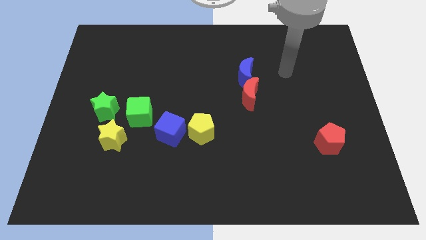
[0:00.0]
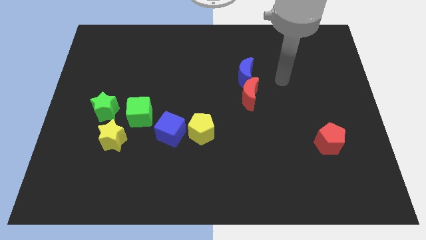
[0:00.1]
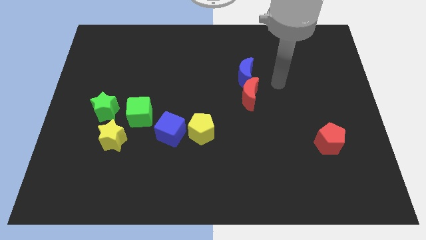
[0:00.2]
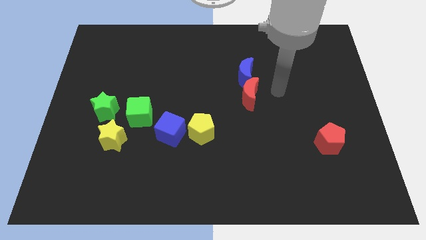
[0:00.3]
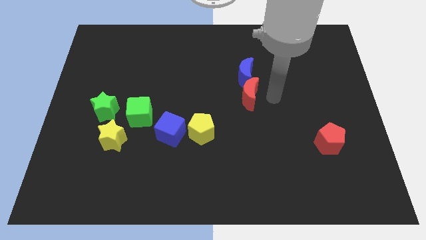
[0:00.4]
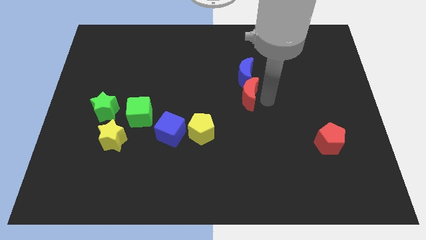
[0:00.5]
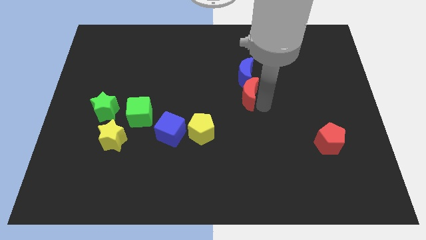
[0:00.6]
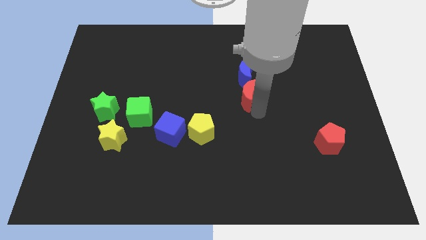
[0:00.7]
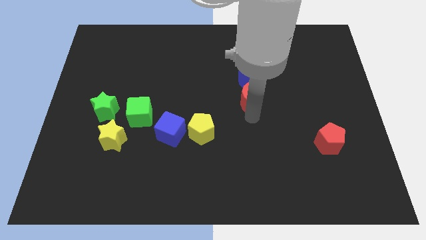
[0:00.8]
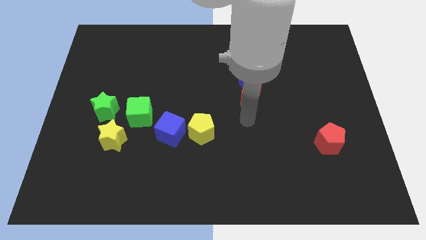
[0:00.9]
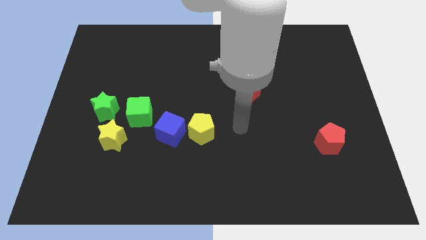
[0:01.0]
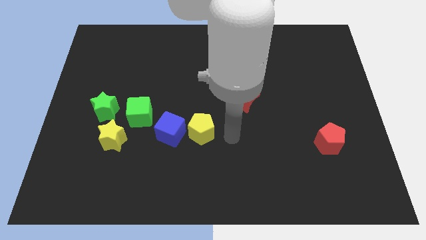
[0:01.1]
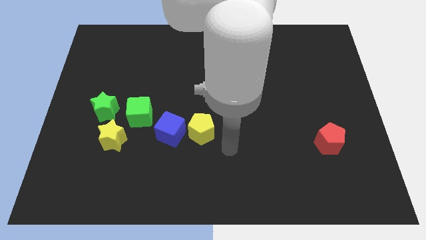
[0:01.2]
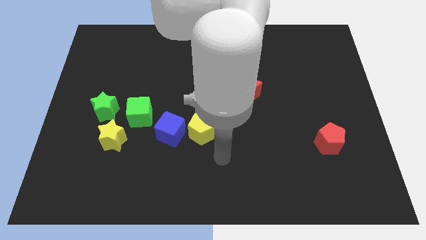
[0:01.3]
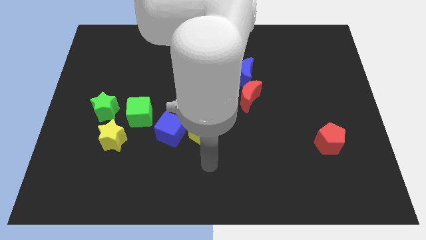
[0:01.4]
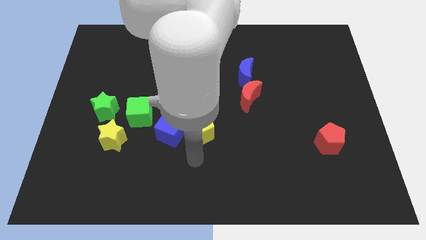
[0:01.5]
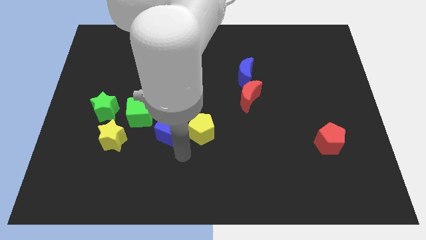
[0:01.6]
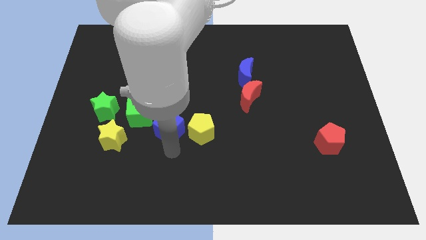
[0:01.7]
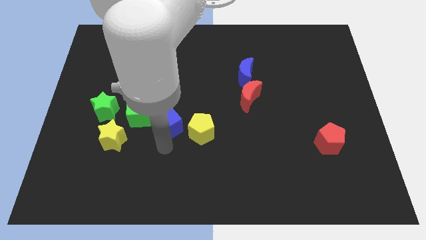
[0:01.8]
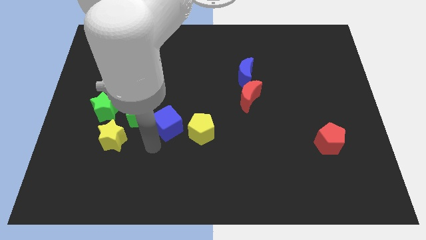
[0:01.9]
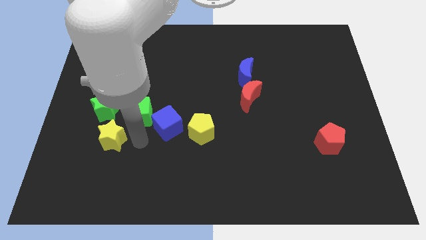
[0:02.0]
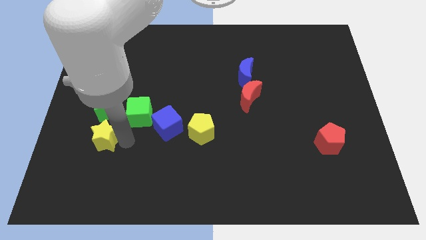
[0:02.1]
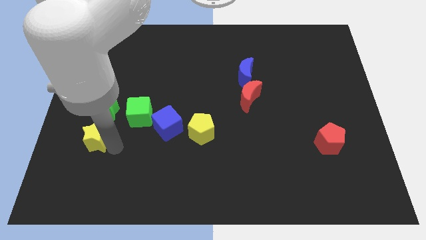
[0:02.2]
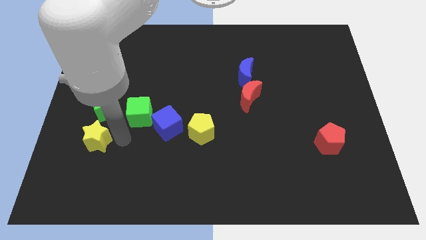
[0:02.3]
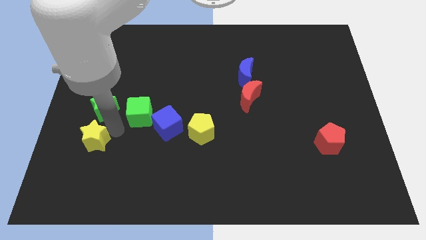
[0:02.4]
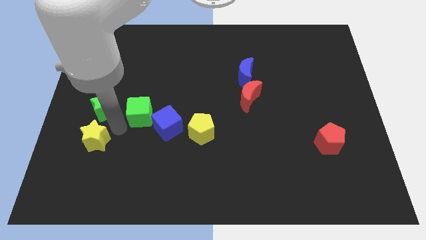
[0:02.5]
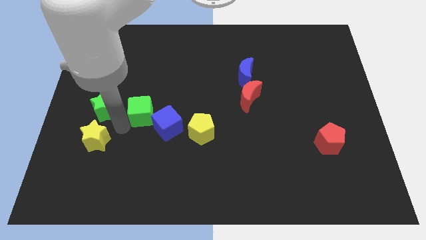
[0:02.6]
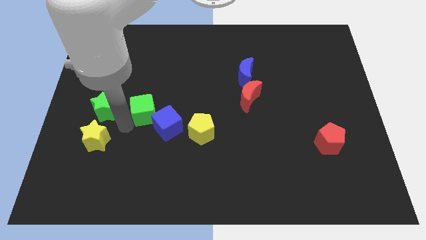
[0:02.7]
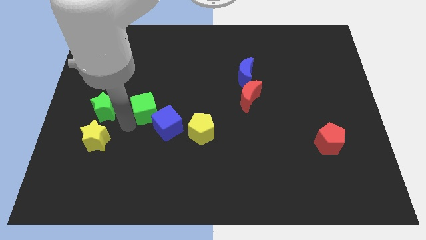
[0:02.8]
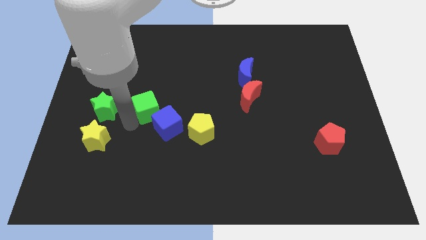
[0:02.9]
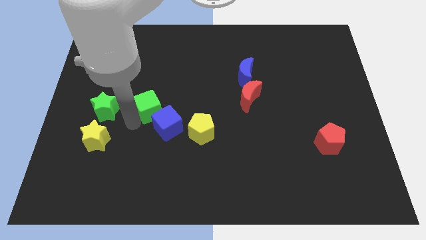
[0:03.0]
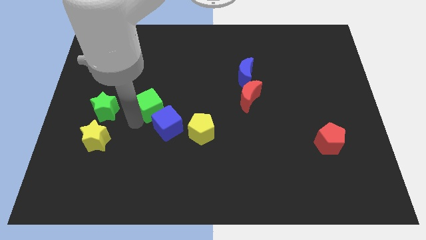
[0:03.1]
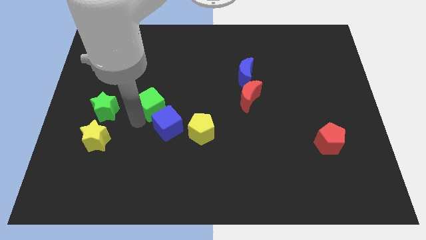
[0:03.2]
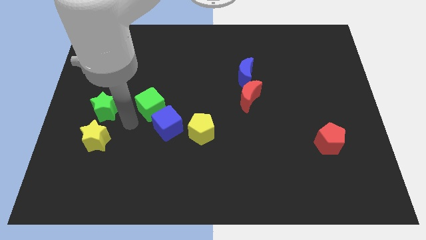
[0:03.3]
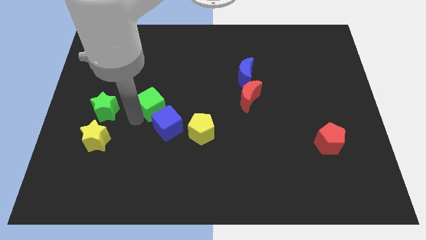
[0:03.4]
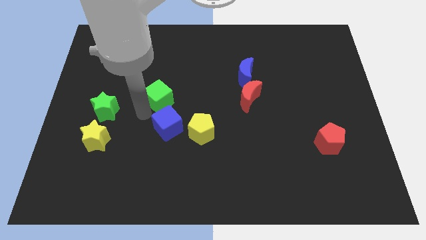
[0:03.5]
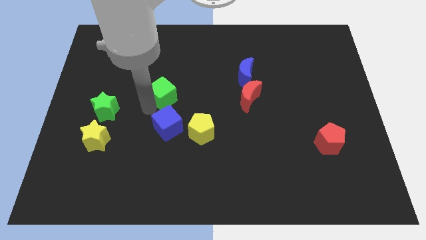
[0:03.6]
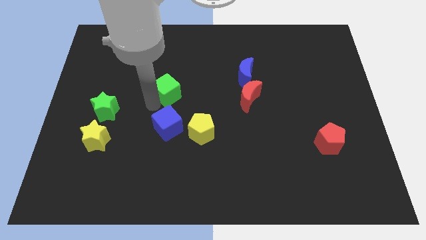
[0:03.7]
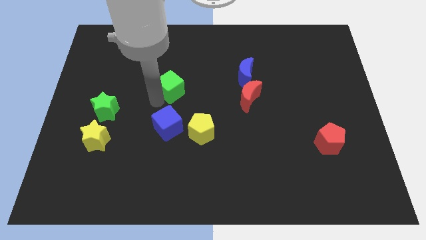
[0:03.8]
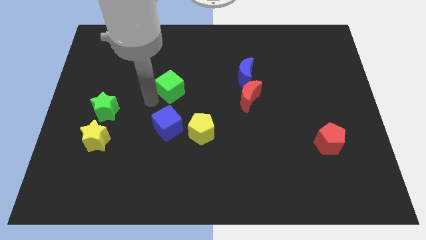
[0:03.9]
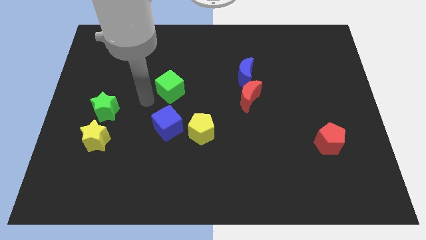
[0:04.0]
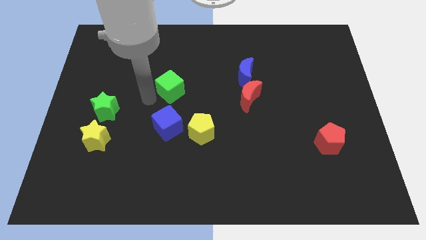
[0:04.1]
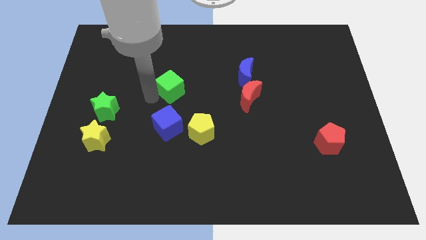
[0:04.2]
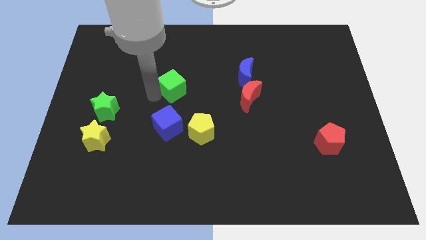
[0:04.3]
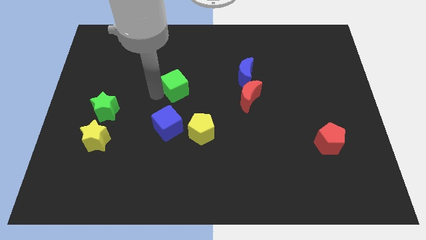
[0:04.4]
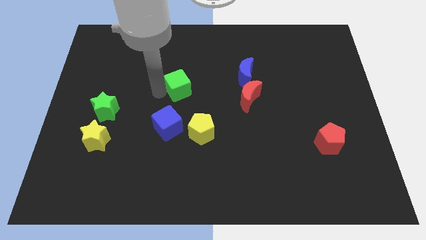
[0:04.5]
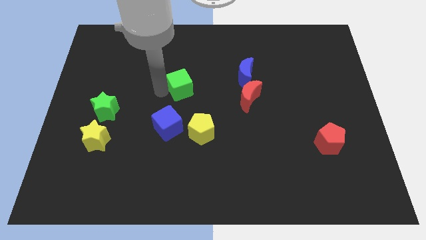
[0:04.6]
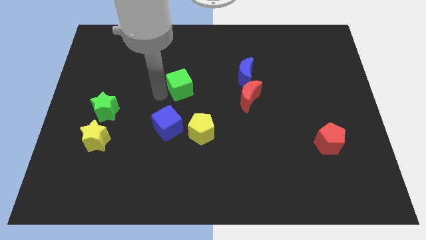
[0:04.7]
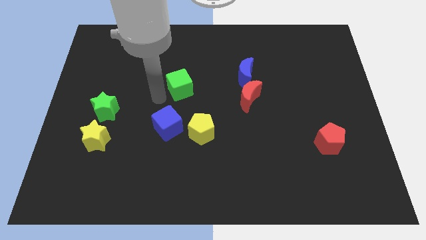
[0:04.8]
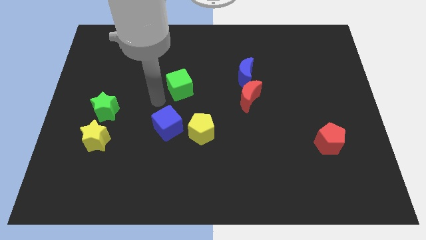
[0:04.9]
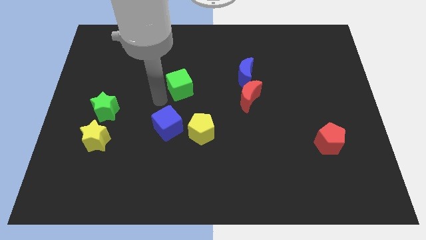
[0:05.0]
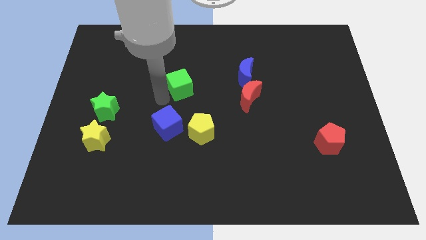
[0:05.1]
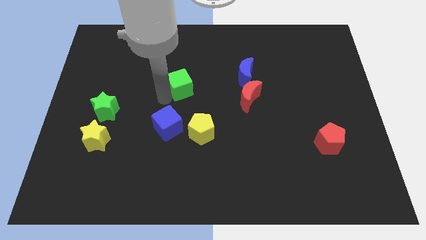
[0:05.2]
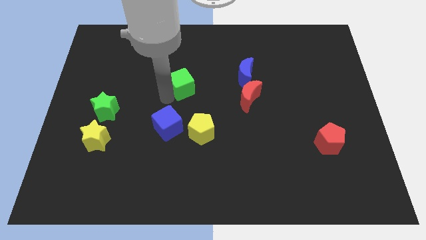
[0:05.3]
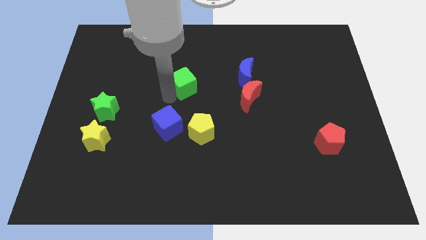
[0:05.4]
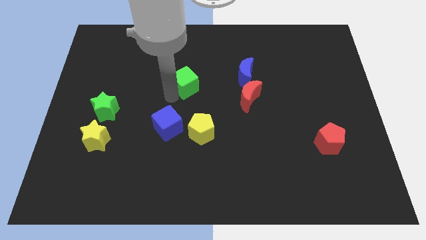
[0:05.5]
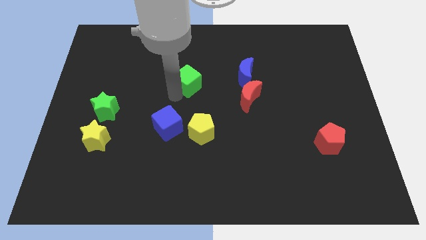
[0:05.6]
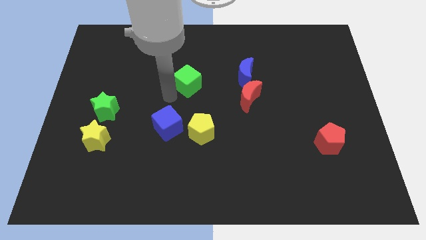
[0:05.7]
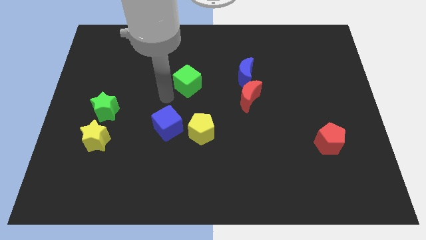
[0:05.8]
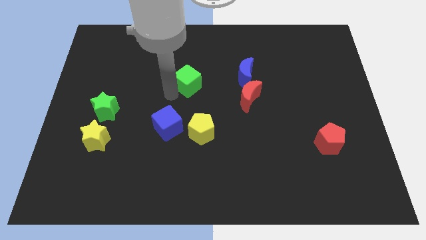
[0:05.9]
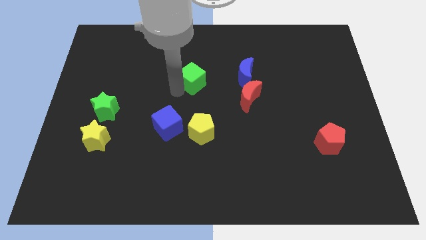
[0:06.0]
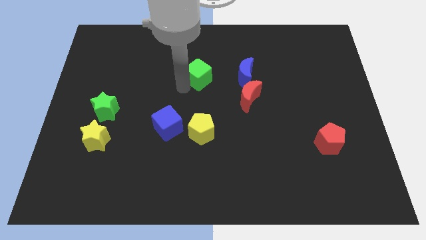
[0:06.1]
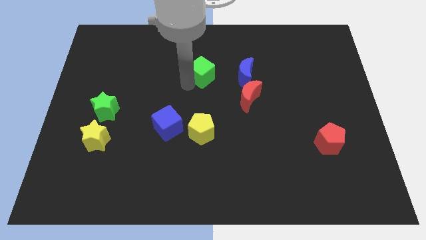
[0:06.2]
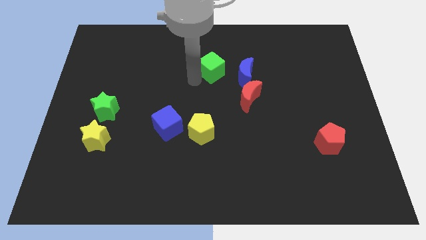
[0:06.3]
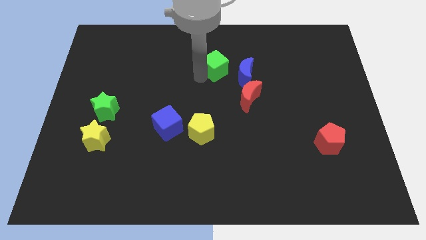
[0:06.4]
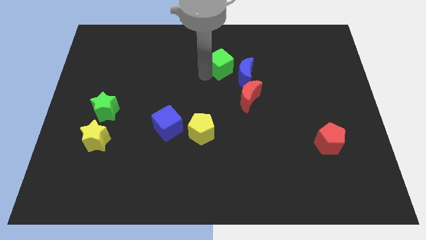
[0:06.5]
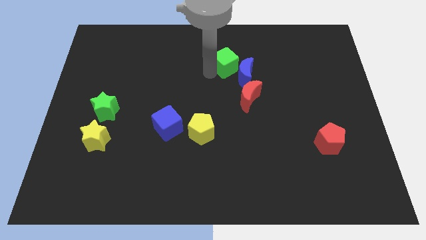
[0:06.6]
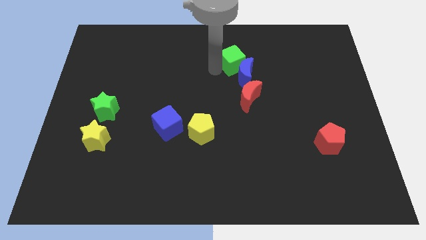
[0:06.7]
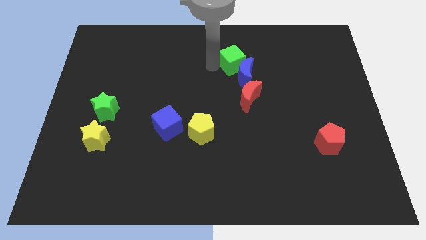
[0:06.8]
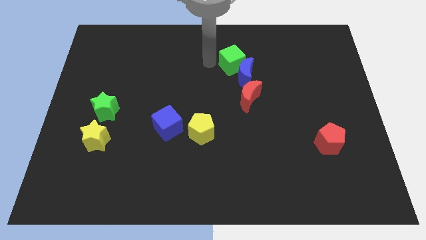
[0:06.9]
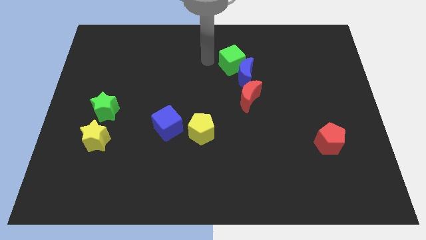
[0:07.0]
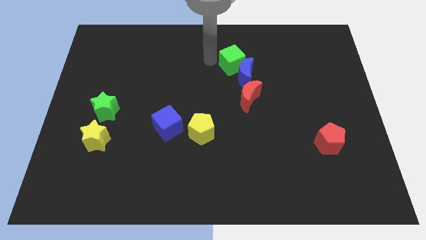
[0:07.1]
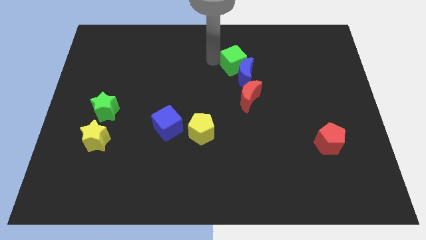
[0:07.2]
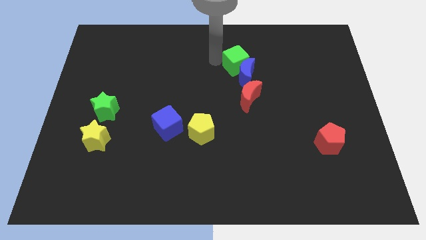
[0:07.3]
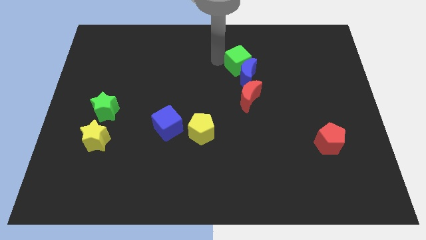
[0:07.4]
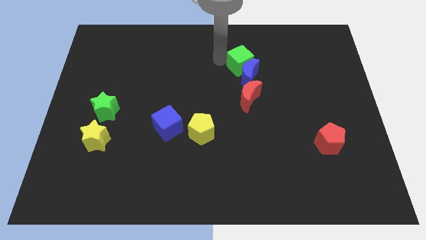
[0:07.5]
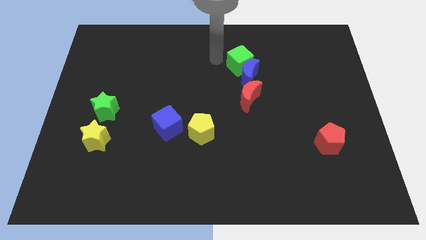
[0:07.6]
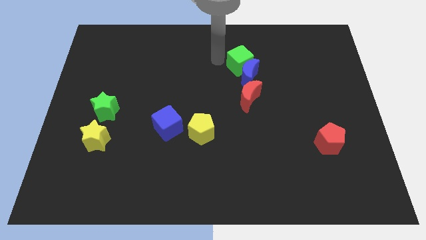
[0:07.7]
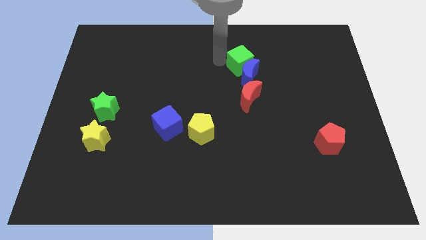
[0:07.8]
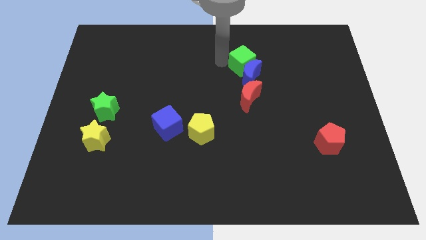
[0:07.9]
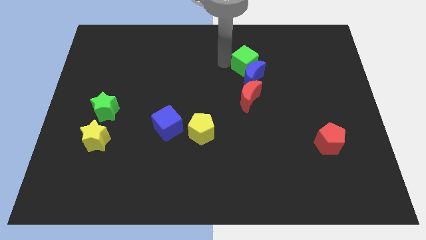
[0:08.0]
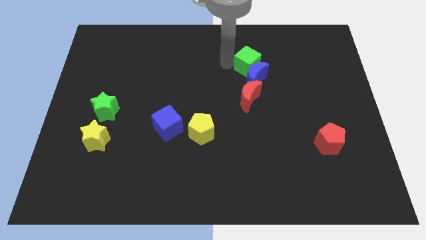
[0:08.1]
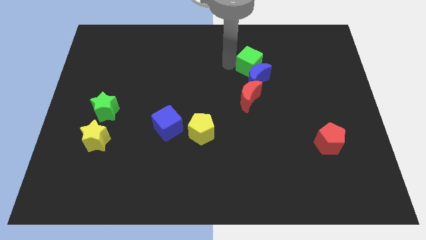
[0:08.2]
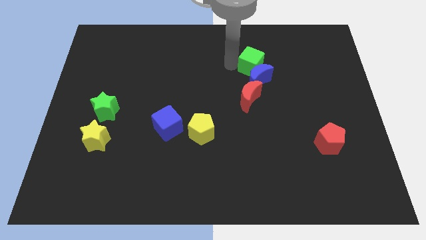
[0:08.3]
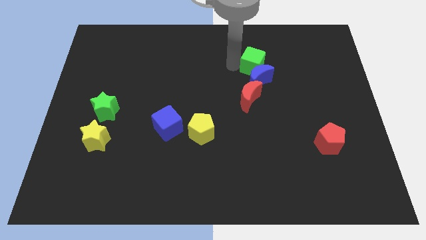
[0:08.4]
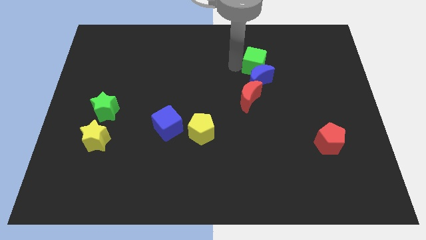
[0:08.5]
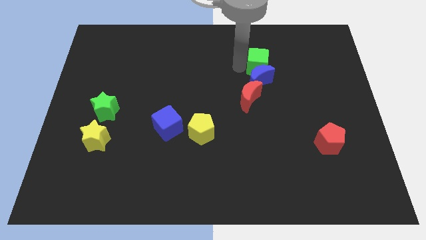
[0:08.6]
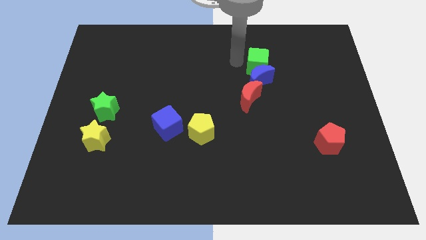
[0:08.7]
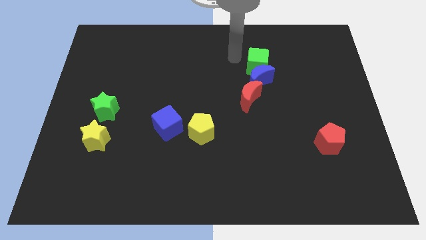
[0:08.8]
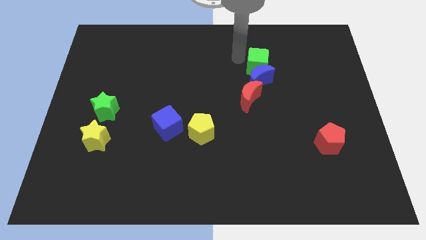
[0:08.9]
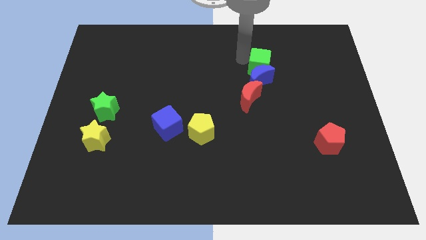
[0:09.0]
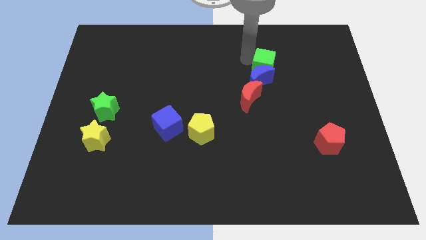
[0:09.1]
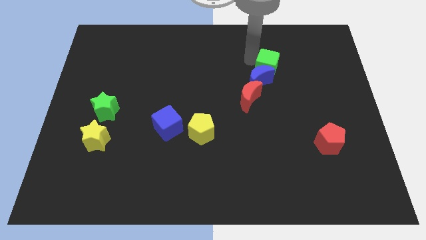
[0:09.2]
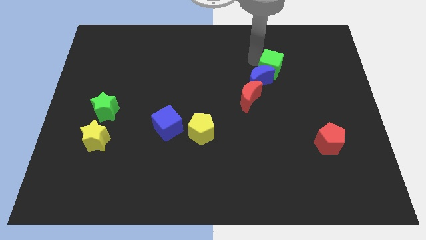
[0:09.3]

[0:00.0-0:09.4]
slide the green cube just right of the blue moon
